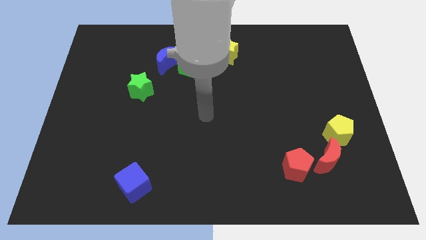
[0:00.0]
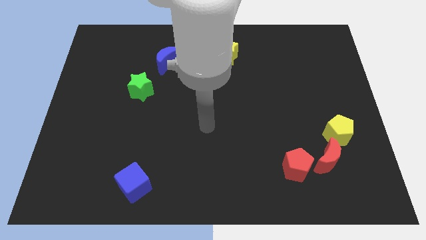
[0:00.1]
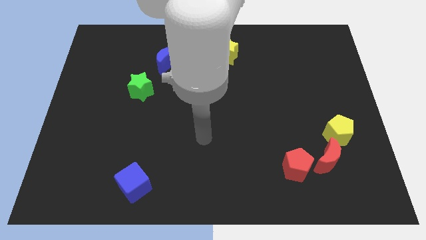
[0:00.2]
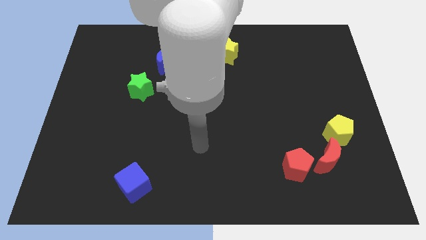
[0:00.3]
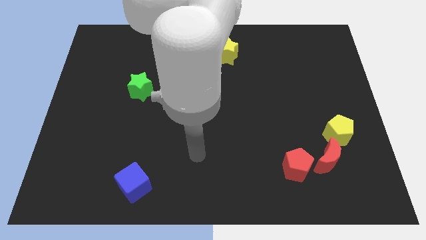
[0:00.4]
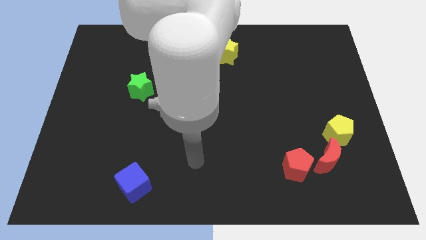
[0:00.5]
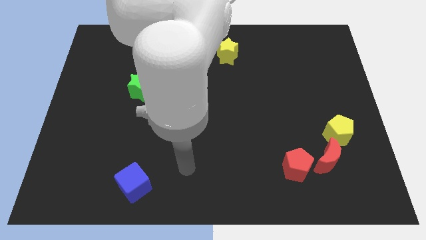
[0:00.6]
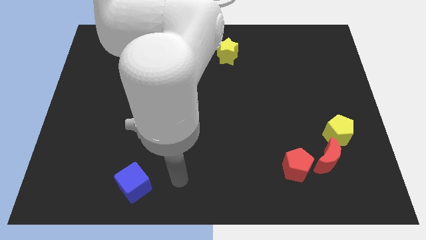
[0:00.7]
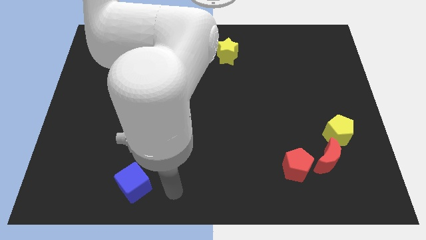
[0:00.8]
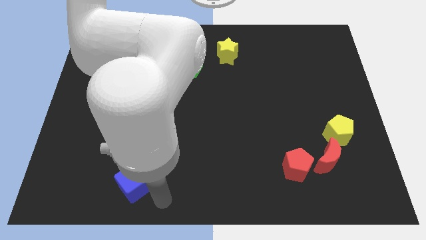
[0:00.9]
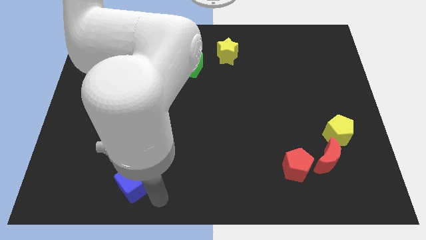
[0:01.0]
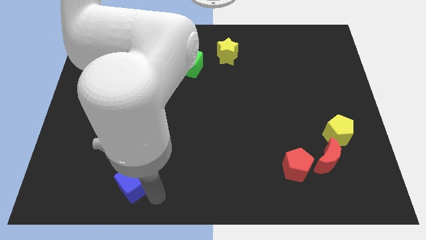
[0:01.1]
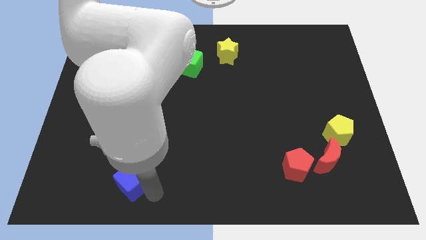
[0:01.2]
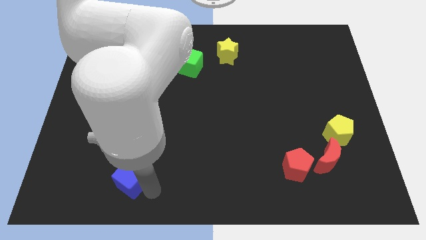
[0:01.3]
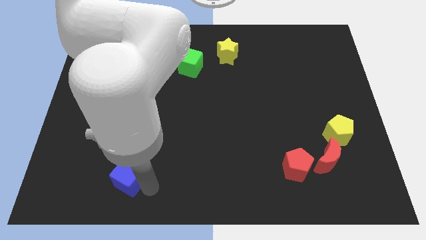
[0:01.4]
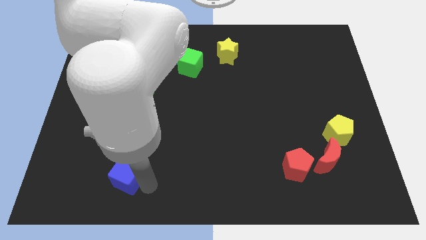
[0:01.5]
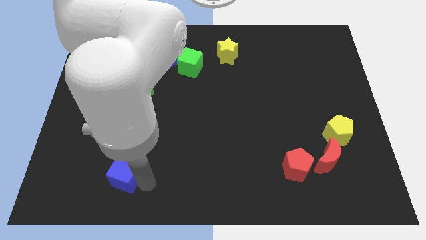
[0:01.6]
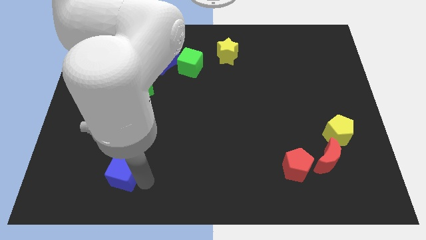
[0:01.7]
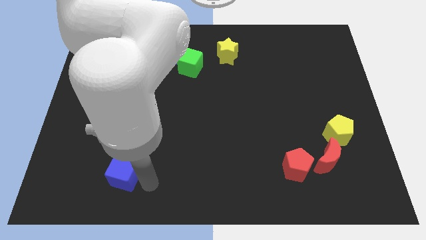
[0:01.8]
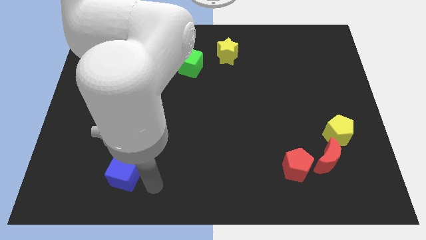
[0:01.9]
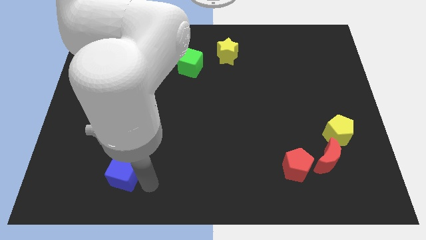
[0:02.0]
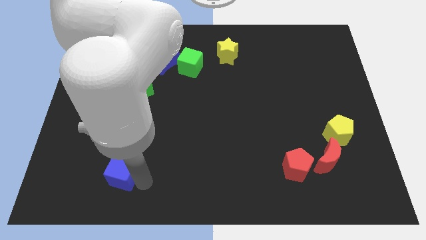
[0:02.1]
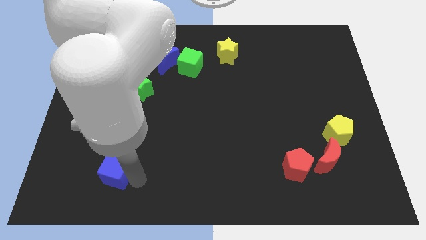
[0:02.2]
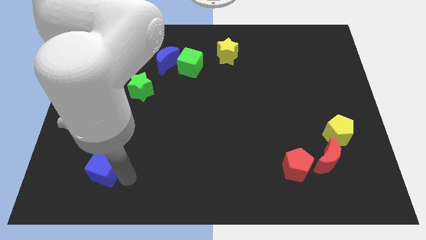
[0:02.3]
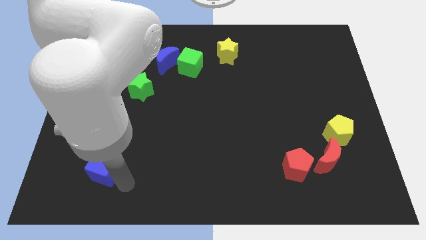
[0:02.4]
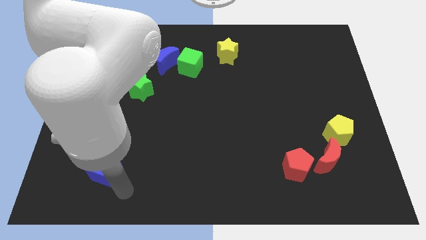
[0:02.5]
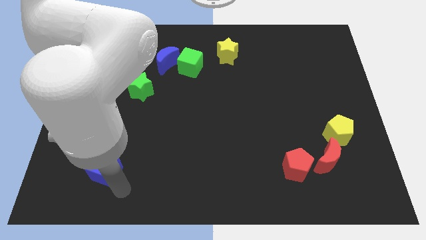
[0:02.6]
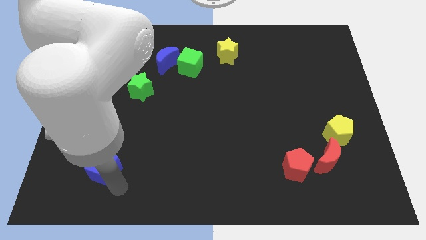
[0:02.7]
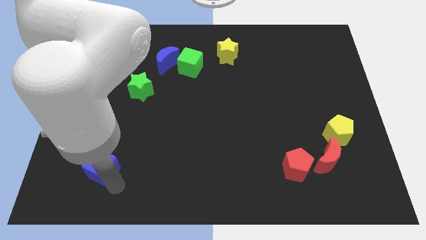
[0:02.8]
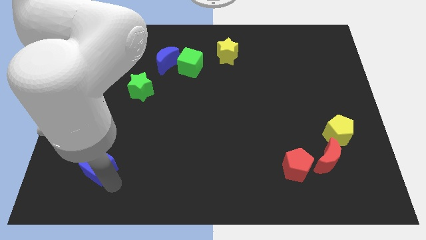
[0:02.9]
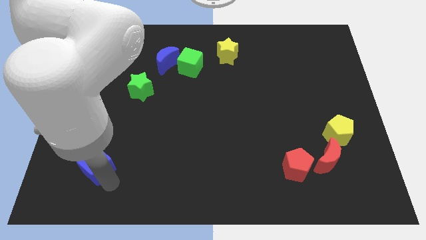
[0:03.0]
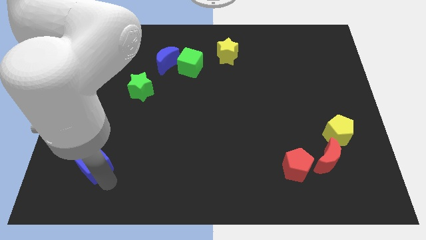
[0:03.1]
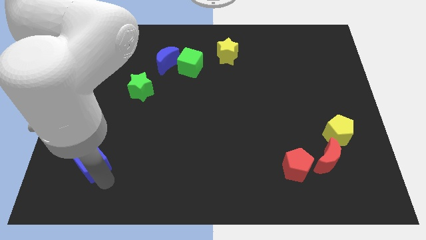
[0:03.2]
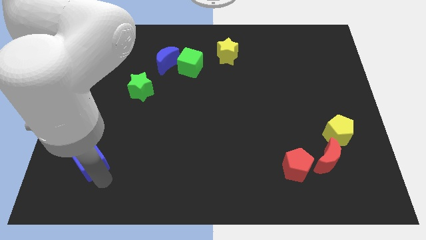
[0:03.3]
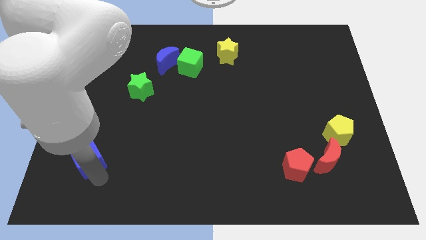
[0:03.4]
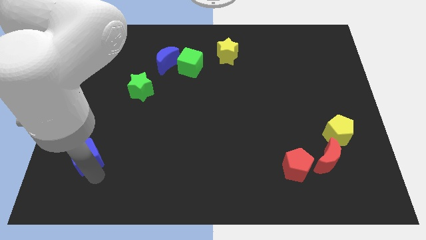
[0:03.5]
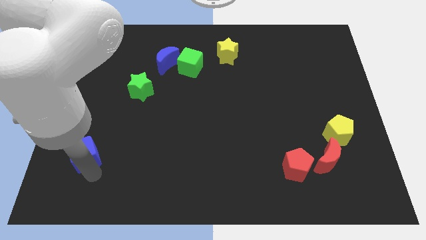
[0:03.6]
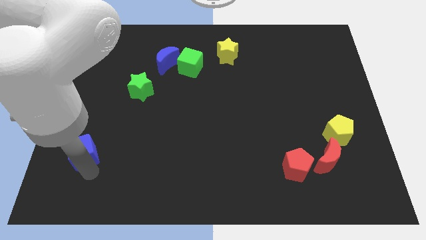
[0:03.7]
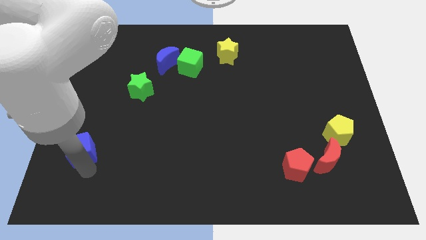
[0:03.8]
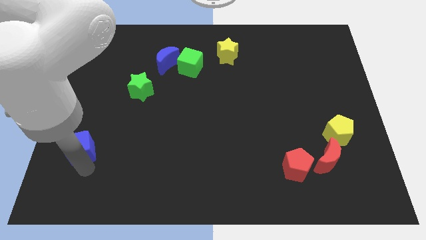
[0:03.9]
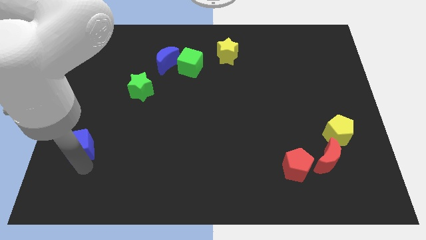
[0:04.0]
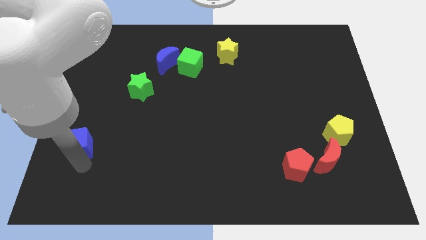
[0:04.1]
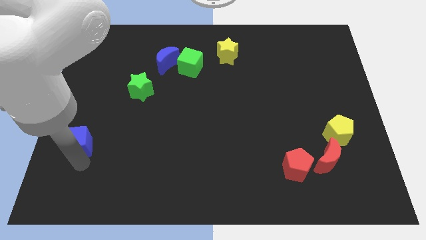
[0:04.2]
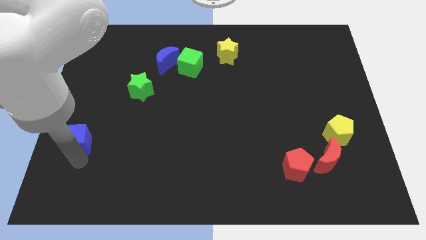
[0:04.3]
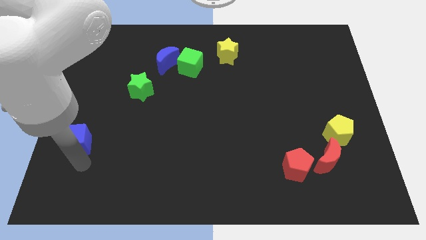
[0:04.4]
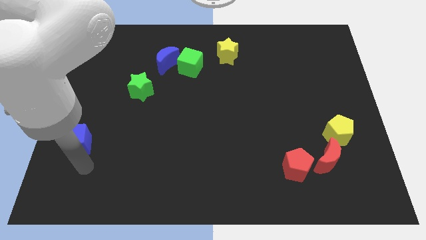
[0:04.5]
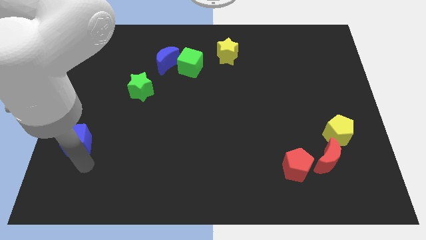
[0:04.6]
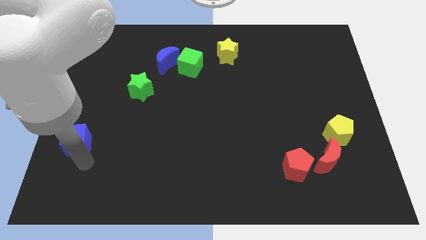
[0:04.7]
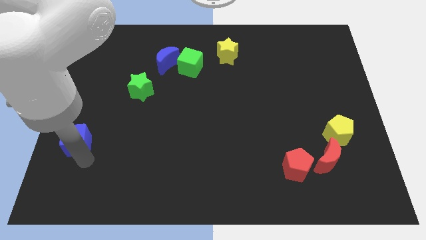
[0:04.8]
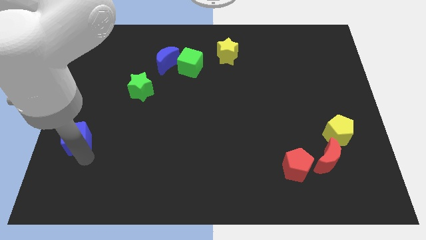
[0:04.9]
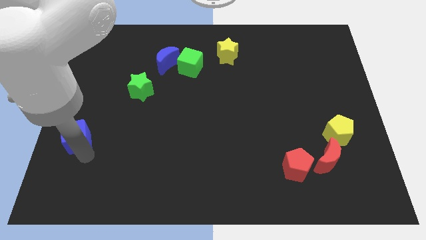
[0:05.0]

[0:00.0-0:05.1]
put the blue cube to the left side
